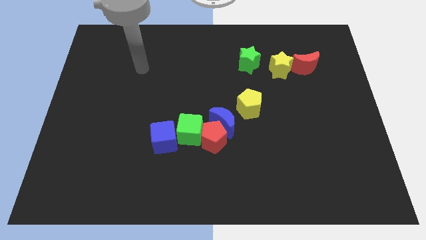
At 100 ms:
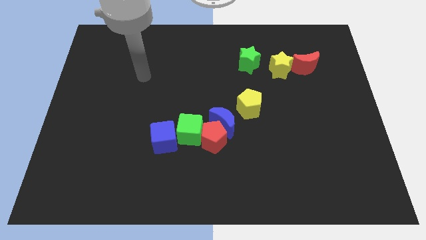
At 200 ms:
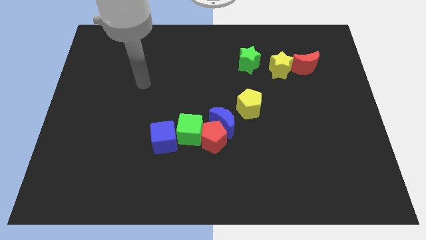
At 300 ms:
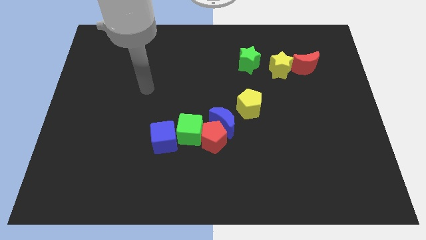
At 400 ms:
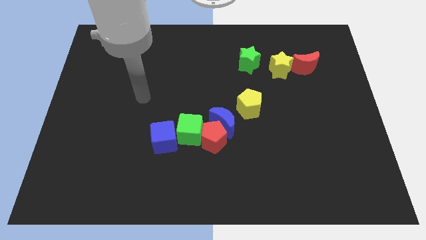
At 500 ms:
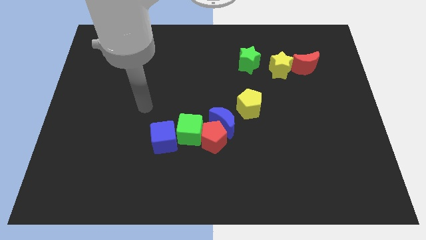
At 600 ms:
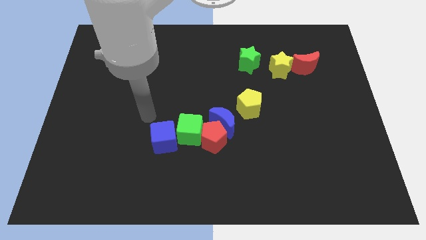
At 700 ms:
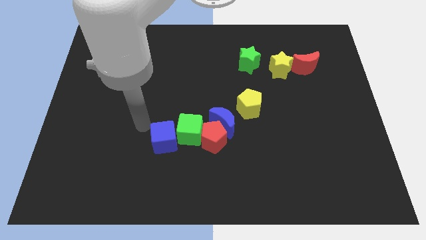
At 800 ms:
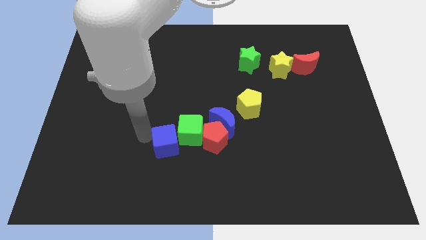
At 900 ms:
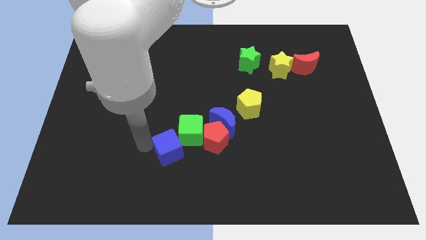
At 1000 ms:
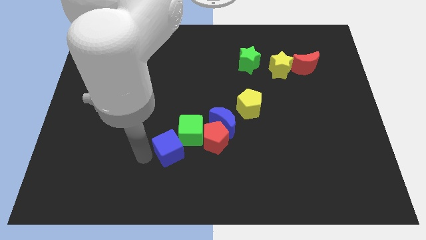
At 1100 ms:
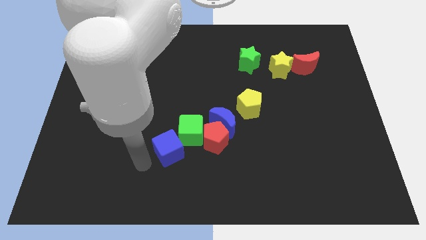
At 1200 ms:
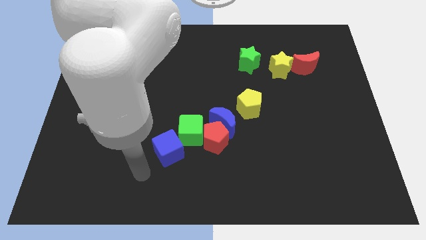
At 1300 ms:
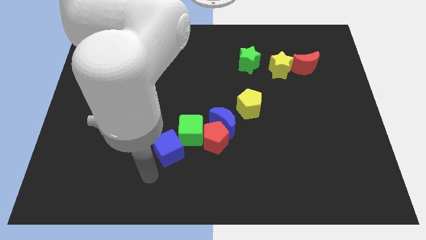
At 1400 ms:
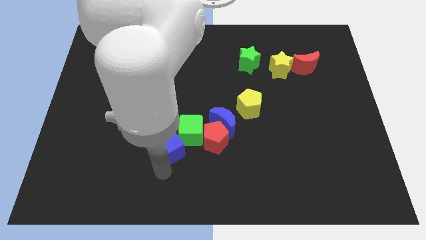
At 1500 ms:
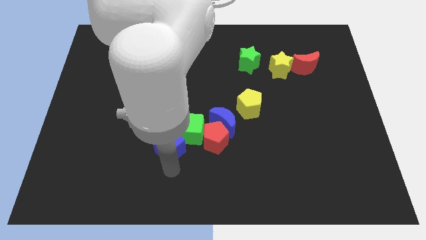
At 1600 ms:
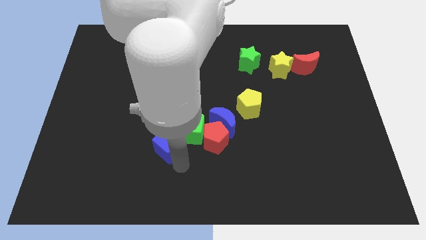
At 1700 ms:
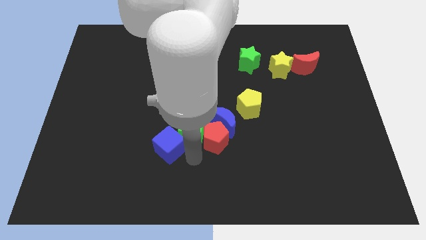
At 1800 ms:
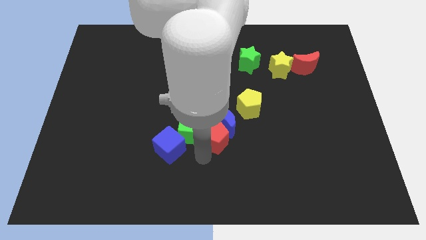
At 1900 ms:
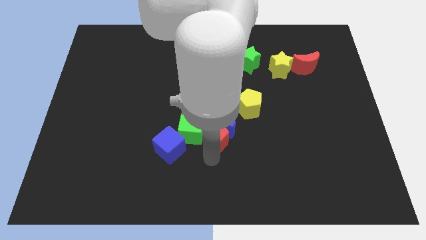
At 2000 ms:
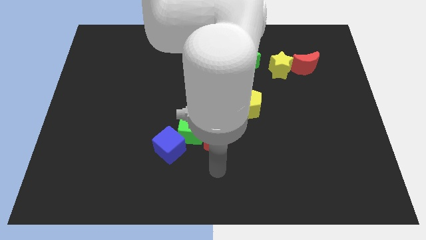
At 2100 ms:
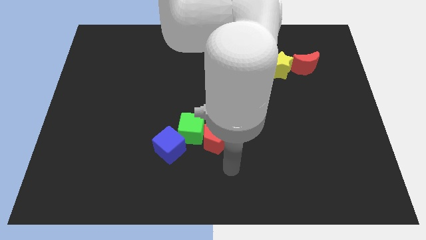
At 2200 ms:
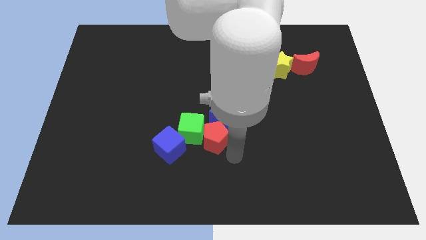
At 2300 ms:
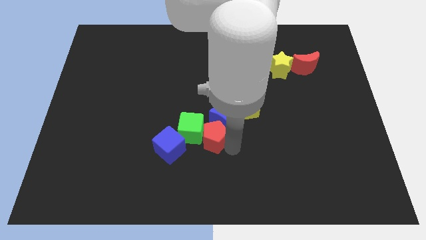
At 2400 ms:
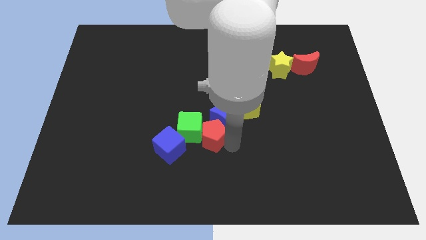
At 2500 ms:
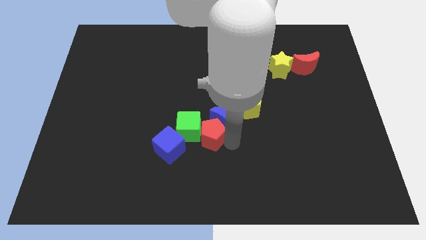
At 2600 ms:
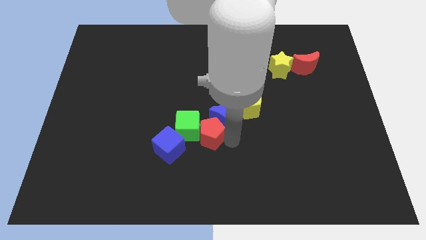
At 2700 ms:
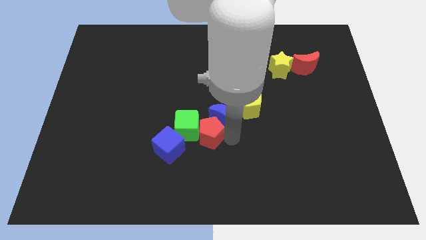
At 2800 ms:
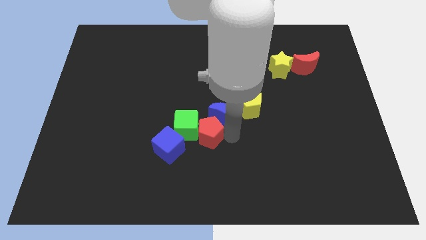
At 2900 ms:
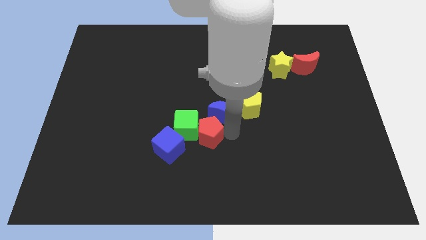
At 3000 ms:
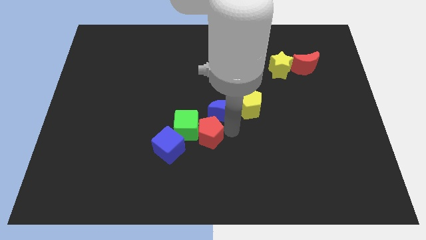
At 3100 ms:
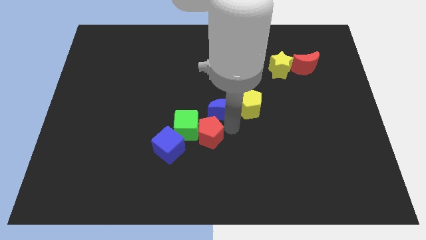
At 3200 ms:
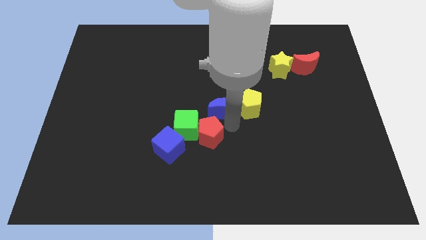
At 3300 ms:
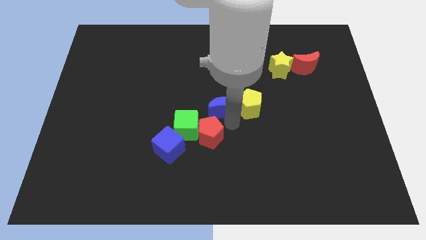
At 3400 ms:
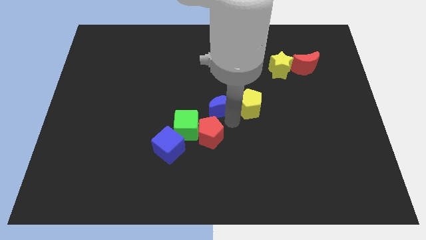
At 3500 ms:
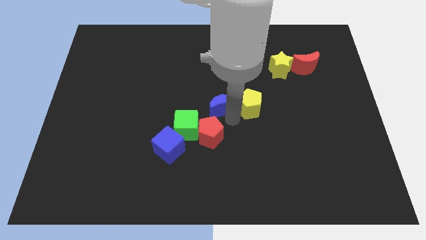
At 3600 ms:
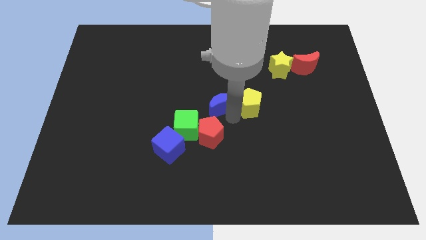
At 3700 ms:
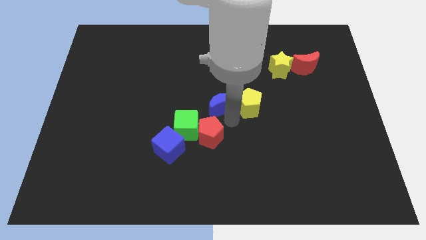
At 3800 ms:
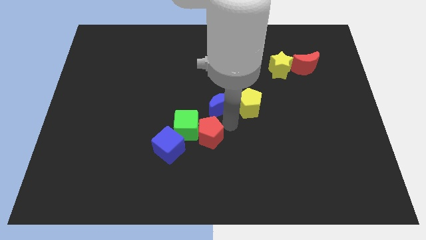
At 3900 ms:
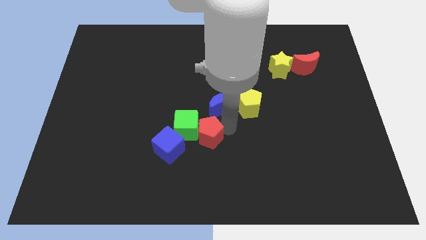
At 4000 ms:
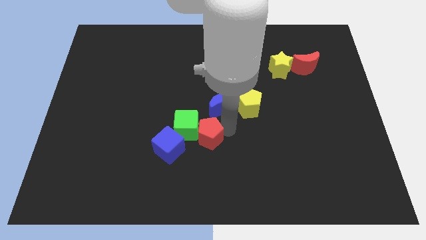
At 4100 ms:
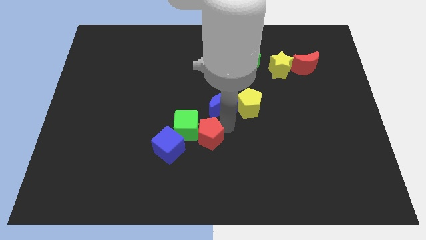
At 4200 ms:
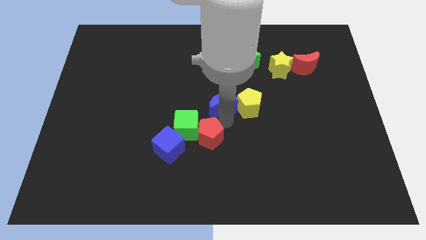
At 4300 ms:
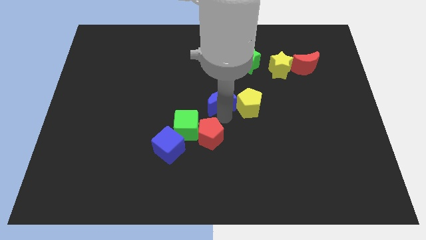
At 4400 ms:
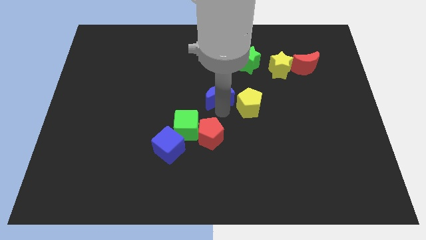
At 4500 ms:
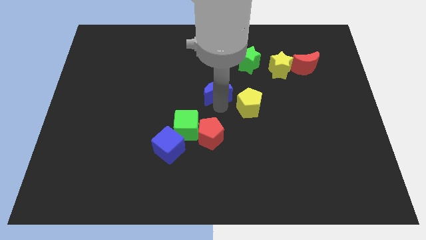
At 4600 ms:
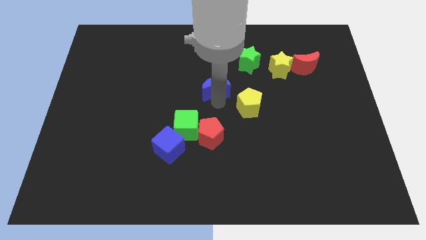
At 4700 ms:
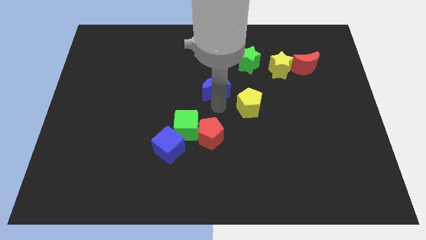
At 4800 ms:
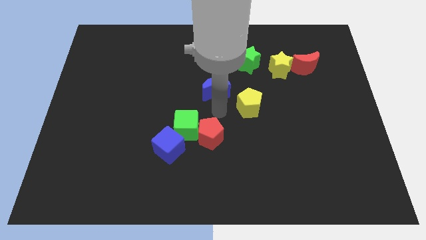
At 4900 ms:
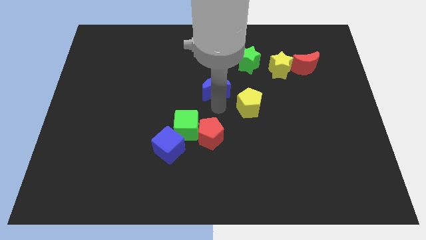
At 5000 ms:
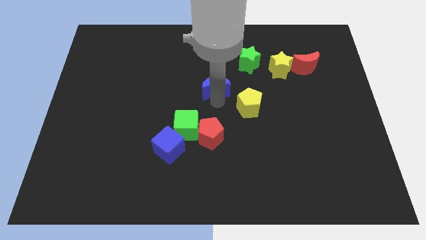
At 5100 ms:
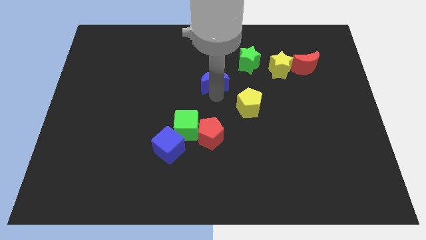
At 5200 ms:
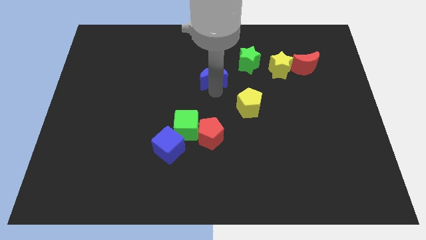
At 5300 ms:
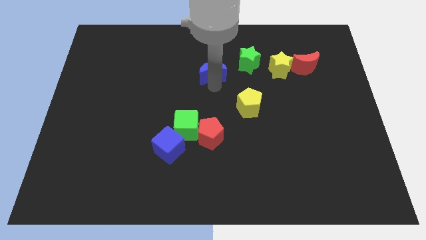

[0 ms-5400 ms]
move the blue moon to the left of the green star

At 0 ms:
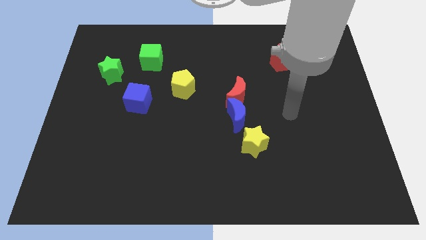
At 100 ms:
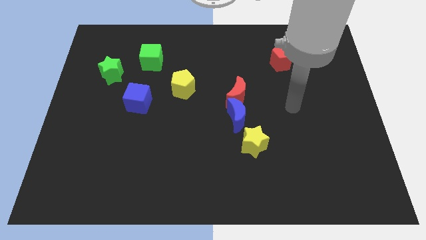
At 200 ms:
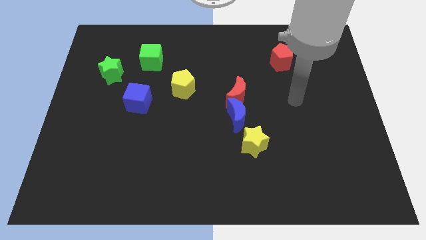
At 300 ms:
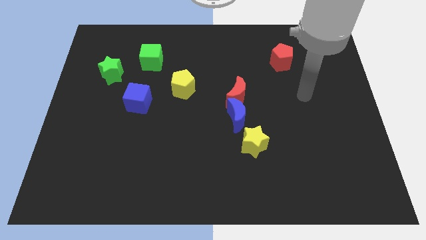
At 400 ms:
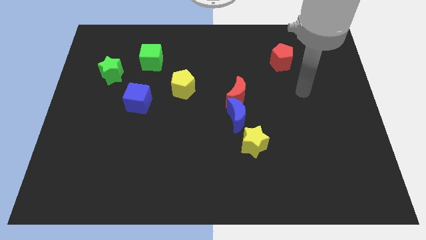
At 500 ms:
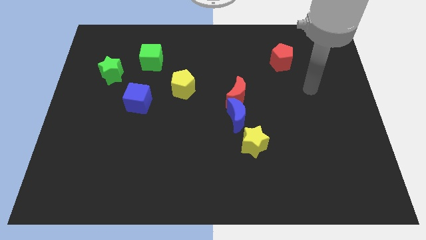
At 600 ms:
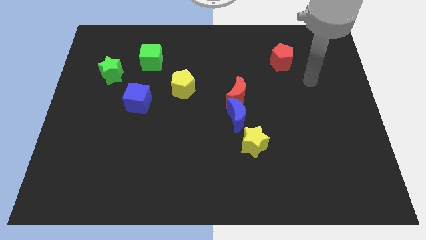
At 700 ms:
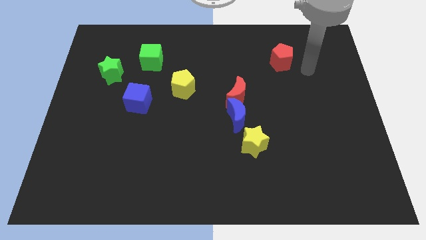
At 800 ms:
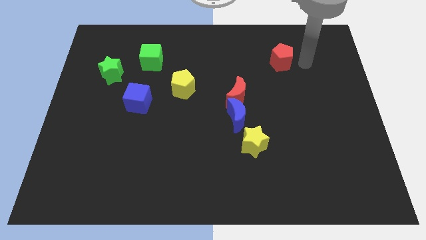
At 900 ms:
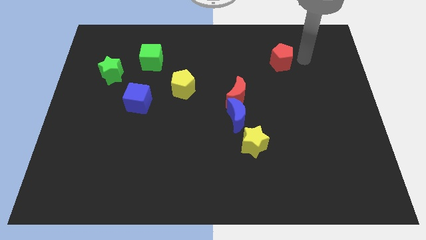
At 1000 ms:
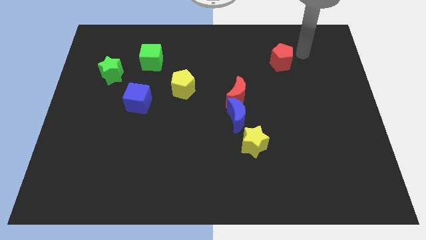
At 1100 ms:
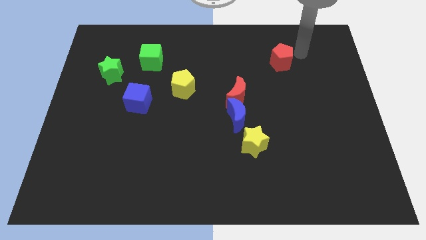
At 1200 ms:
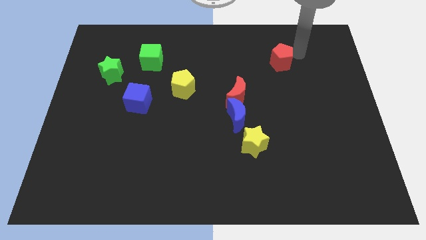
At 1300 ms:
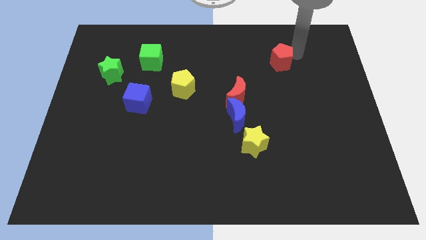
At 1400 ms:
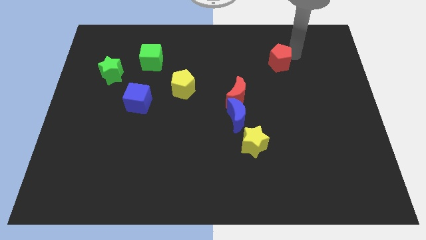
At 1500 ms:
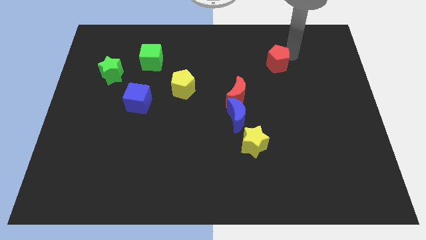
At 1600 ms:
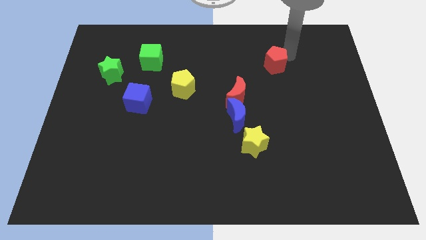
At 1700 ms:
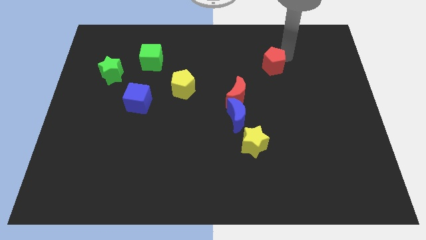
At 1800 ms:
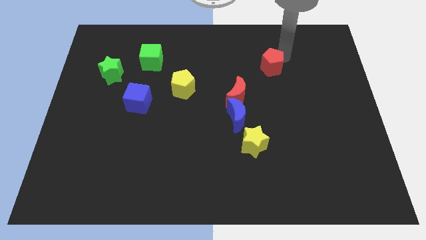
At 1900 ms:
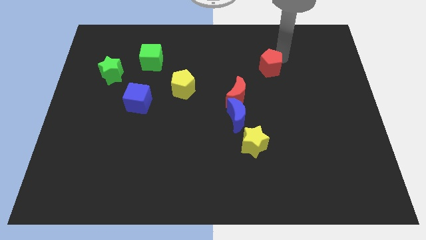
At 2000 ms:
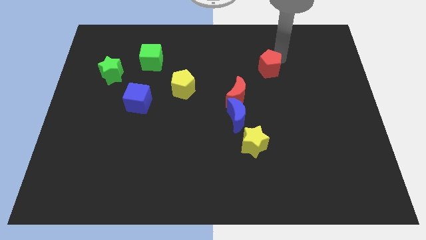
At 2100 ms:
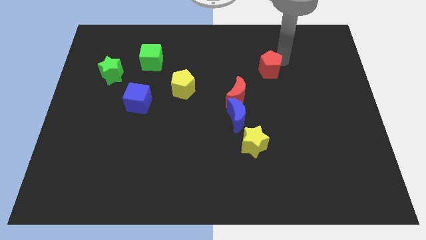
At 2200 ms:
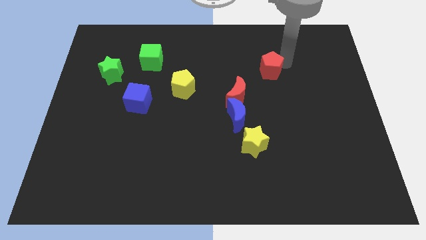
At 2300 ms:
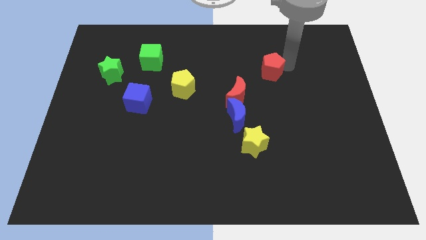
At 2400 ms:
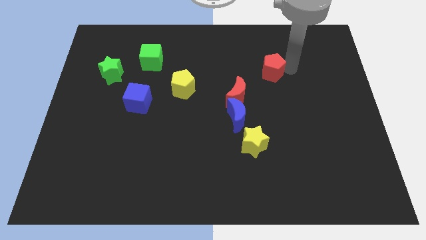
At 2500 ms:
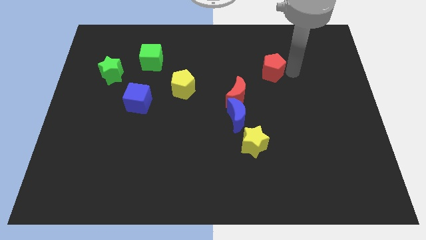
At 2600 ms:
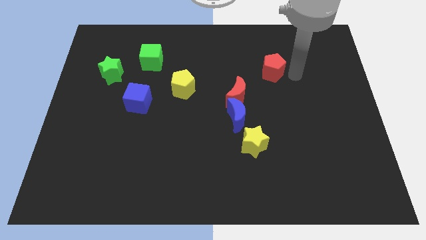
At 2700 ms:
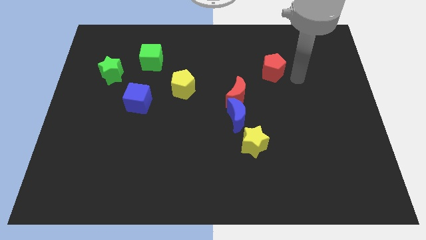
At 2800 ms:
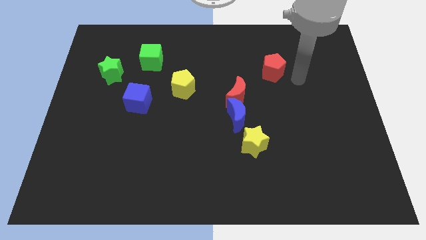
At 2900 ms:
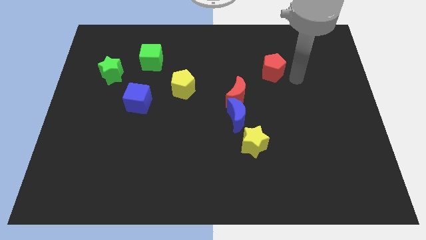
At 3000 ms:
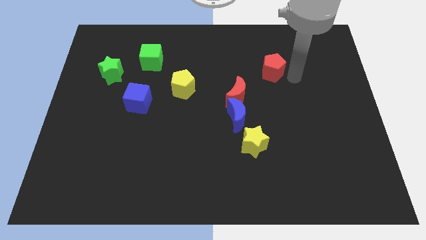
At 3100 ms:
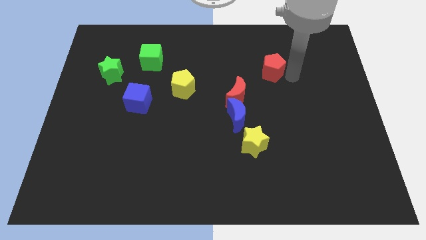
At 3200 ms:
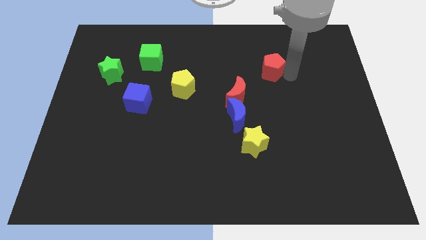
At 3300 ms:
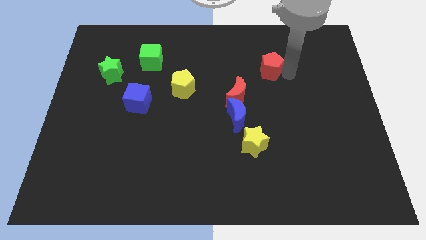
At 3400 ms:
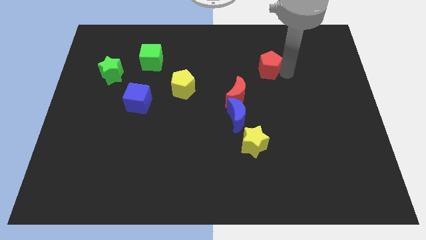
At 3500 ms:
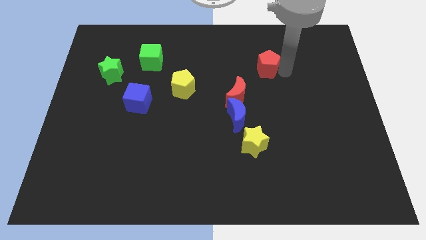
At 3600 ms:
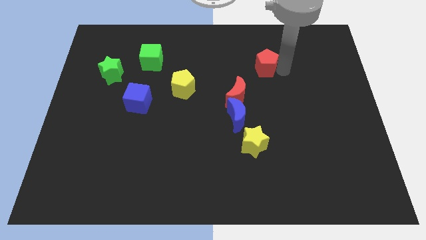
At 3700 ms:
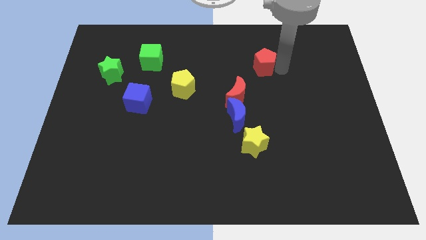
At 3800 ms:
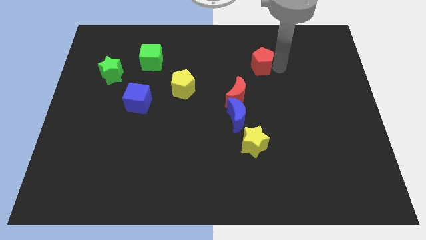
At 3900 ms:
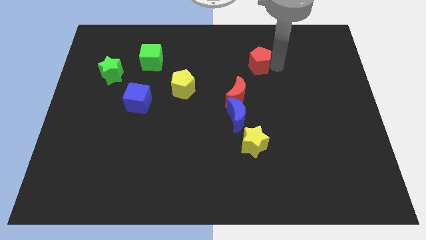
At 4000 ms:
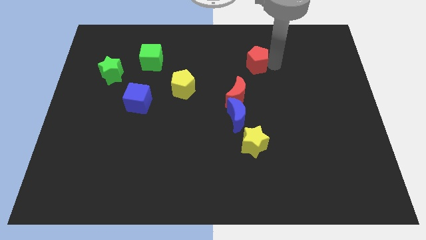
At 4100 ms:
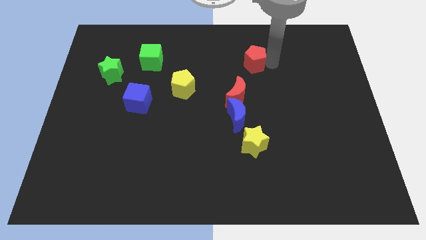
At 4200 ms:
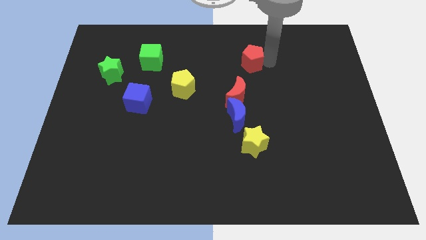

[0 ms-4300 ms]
push the red pentagon to the top side of the red moon
